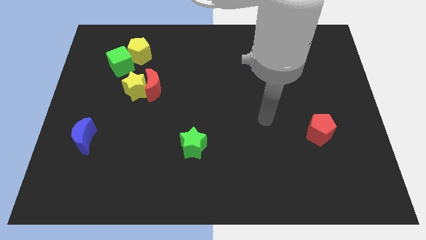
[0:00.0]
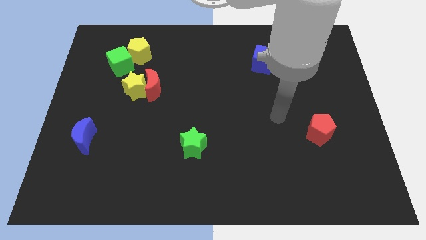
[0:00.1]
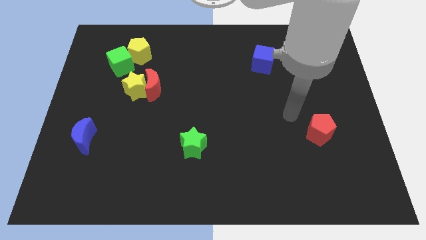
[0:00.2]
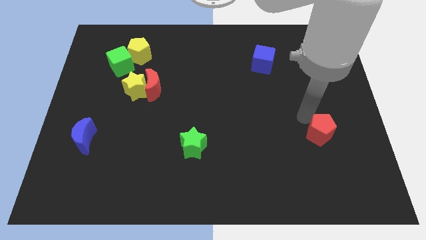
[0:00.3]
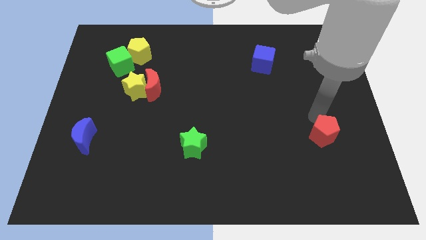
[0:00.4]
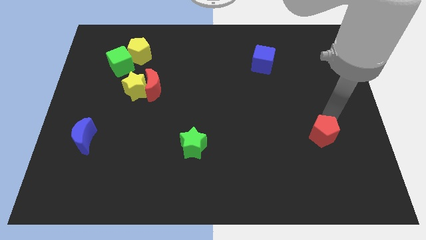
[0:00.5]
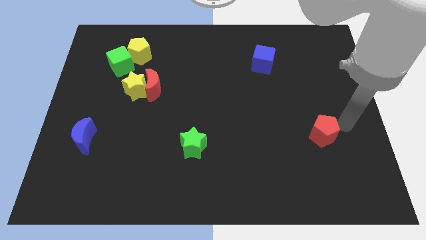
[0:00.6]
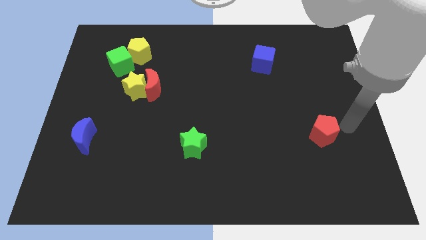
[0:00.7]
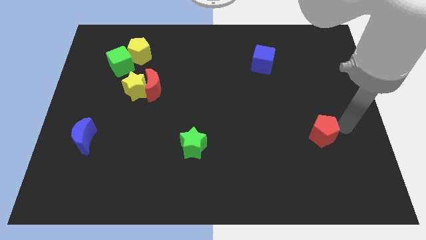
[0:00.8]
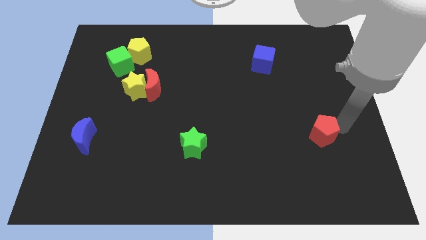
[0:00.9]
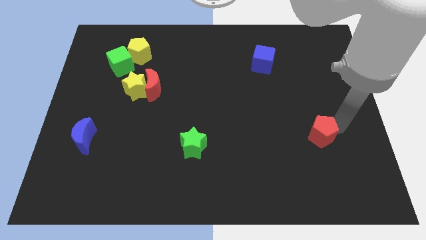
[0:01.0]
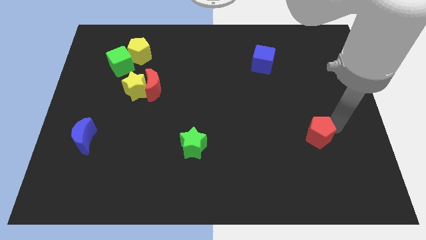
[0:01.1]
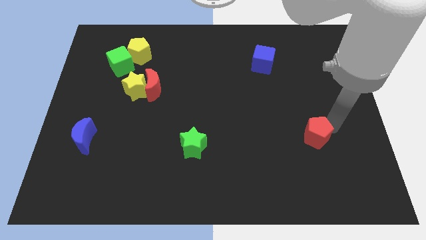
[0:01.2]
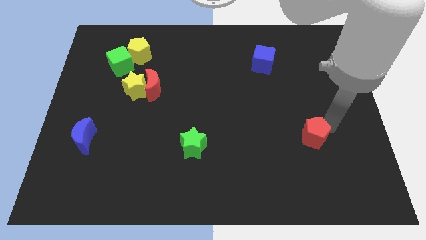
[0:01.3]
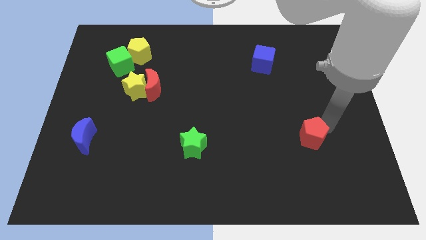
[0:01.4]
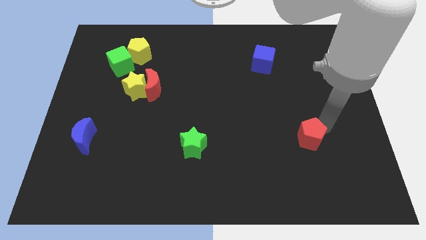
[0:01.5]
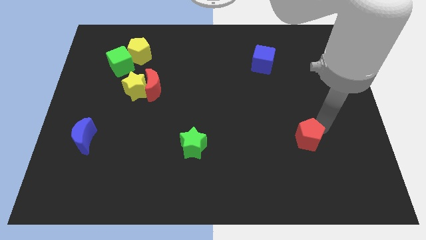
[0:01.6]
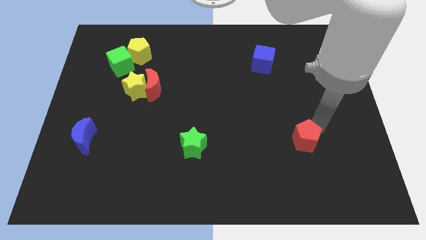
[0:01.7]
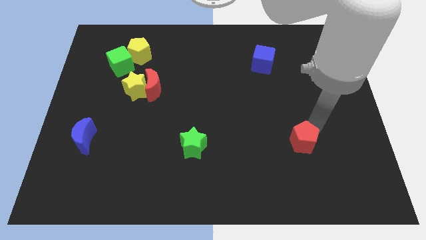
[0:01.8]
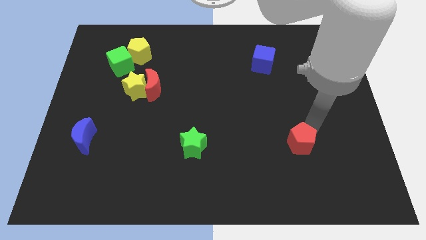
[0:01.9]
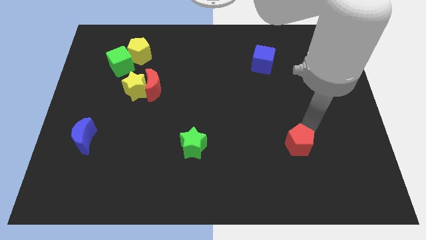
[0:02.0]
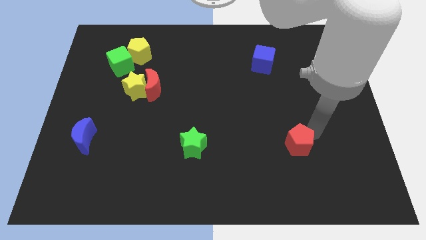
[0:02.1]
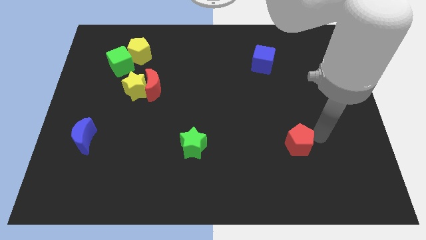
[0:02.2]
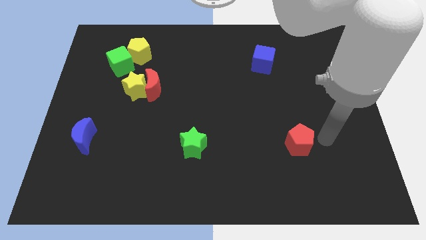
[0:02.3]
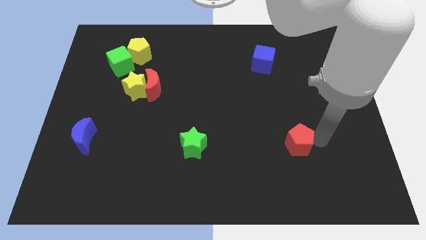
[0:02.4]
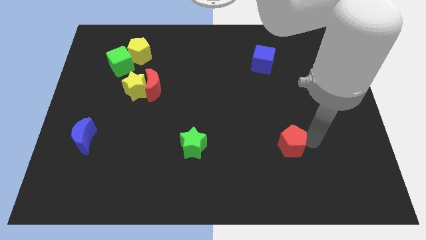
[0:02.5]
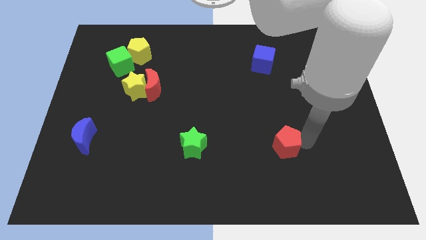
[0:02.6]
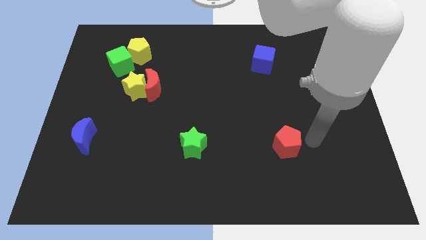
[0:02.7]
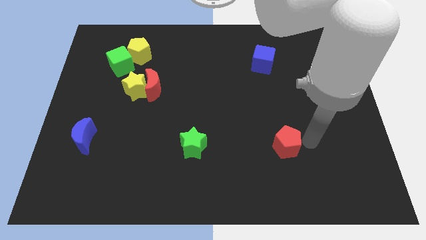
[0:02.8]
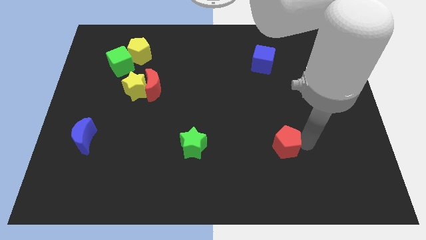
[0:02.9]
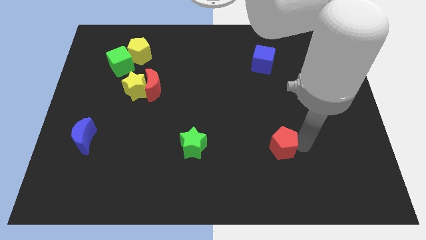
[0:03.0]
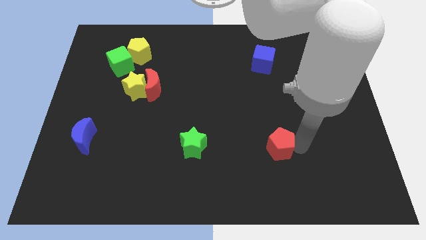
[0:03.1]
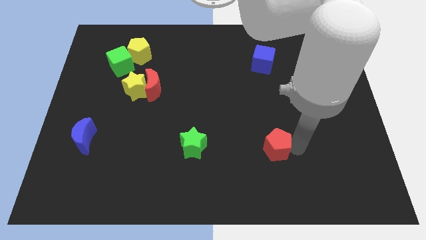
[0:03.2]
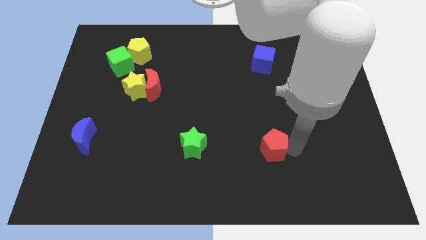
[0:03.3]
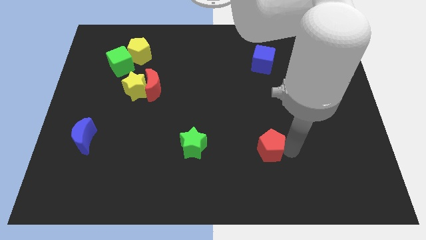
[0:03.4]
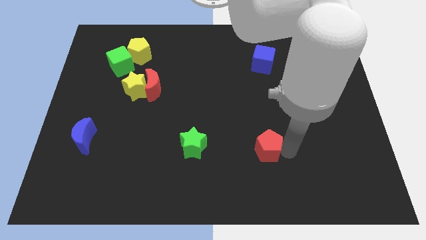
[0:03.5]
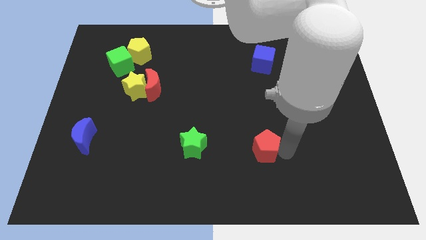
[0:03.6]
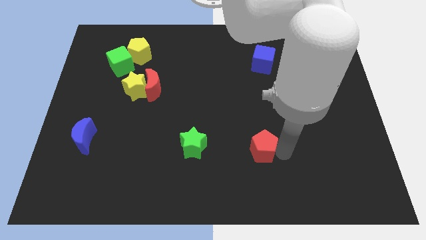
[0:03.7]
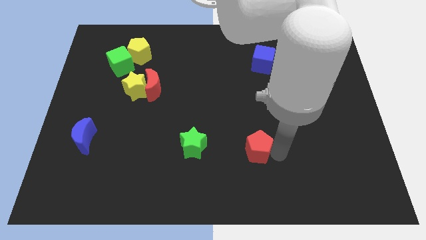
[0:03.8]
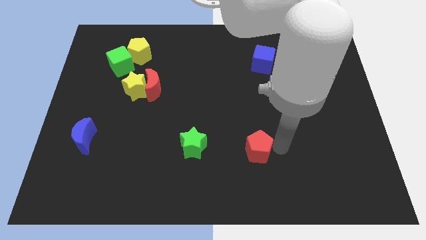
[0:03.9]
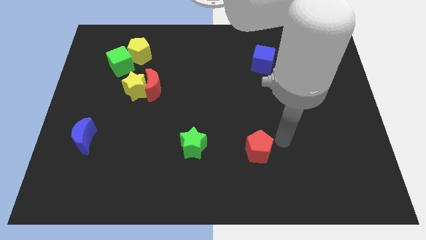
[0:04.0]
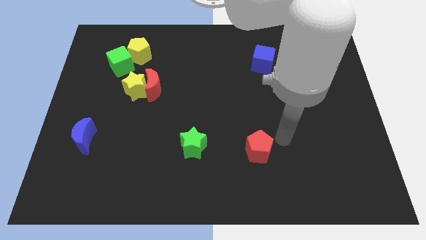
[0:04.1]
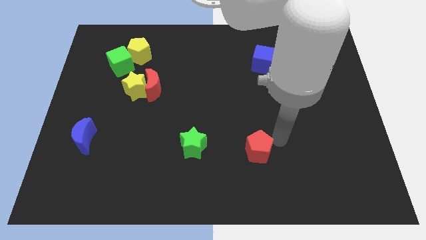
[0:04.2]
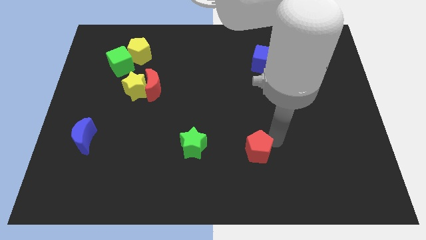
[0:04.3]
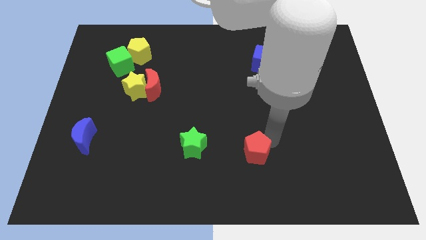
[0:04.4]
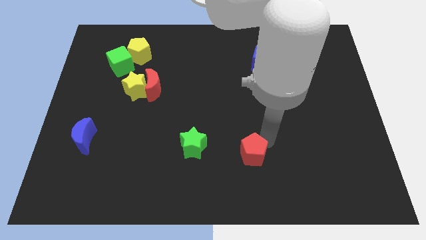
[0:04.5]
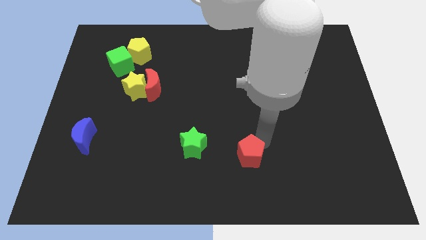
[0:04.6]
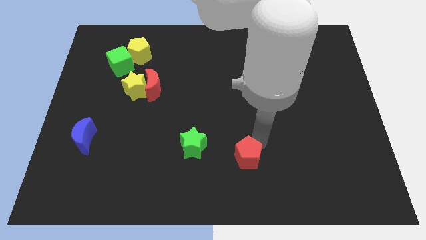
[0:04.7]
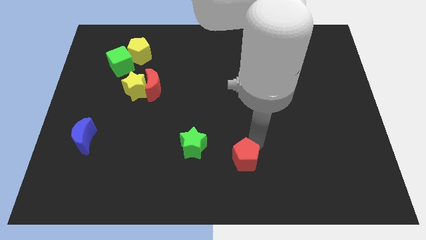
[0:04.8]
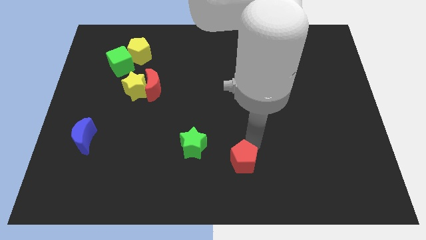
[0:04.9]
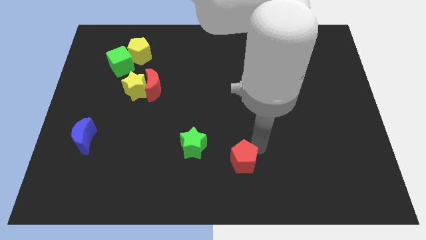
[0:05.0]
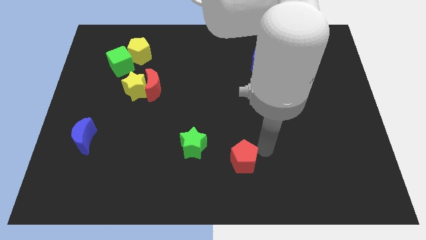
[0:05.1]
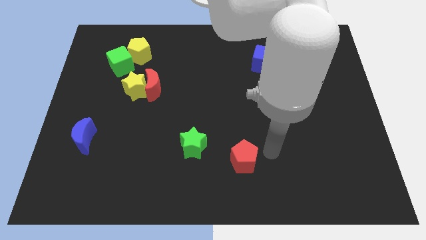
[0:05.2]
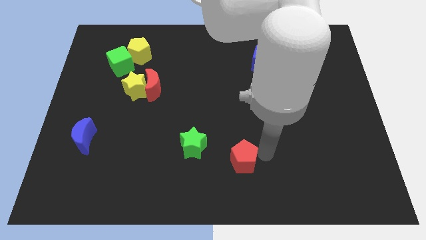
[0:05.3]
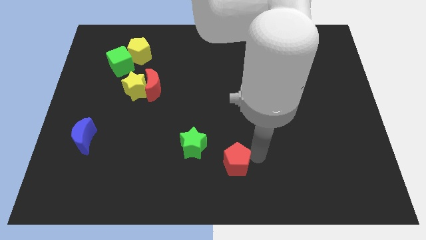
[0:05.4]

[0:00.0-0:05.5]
push the red pentagon diagonally down and to the right of the green star

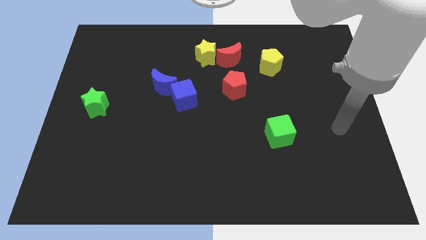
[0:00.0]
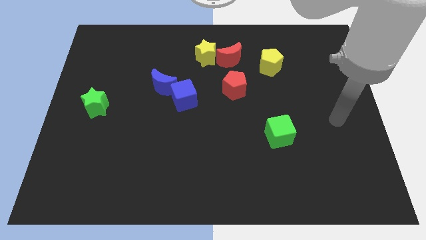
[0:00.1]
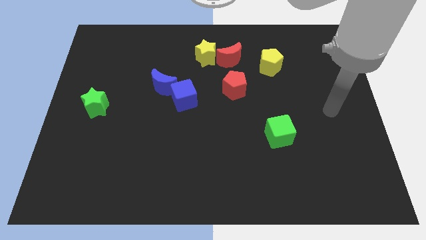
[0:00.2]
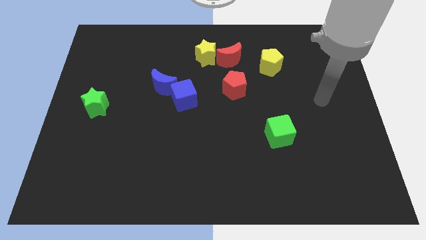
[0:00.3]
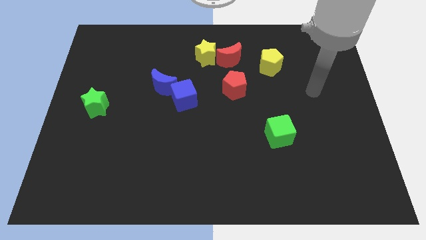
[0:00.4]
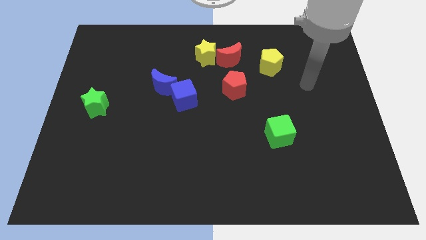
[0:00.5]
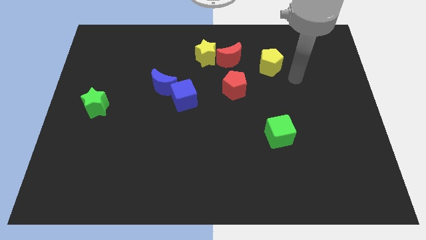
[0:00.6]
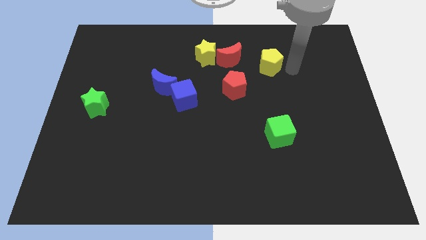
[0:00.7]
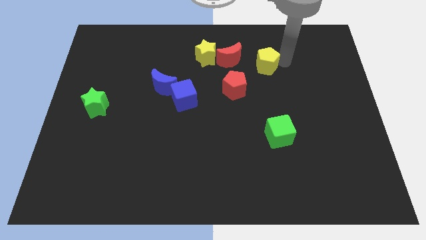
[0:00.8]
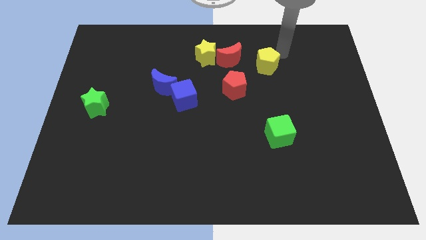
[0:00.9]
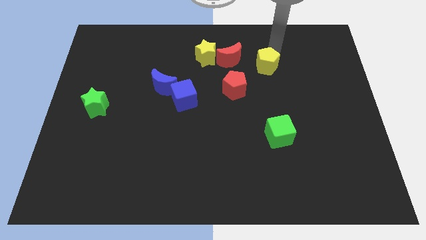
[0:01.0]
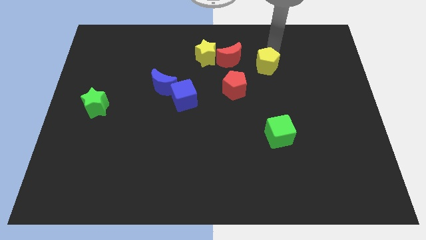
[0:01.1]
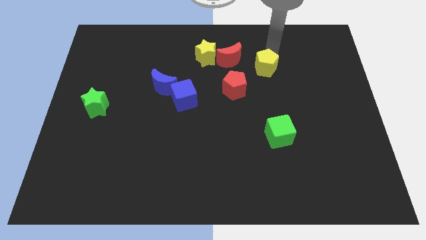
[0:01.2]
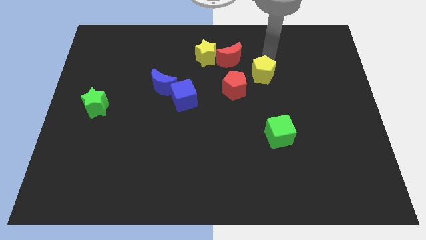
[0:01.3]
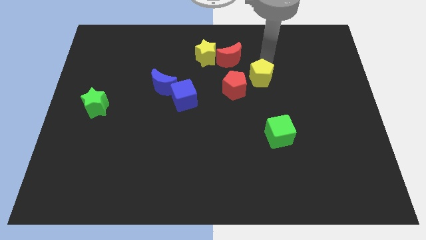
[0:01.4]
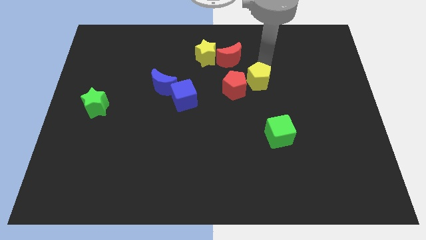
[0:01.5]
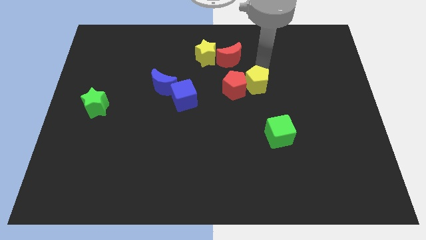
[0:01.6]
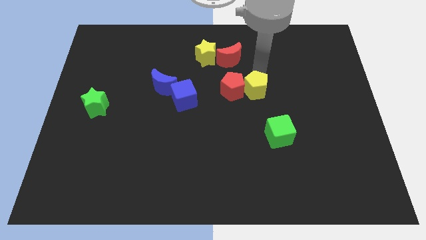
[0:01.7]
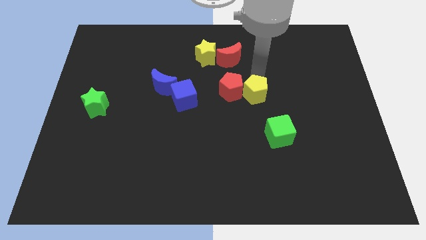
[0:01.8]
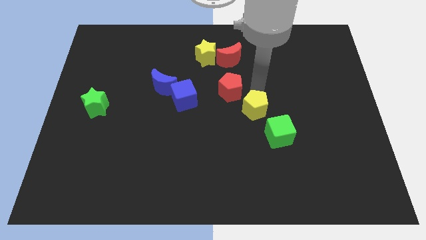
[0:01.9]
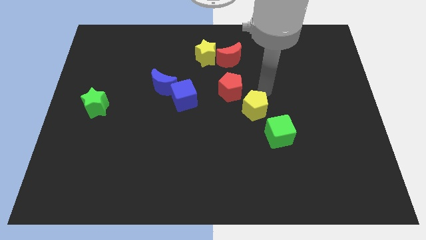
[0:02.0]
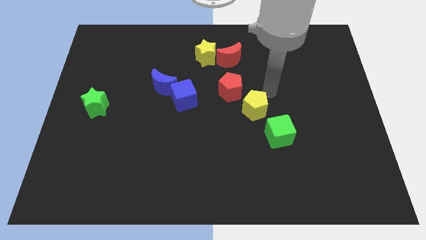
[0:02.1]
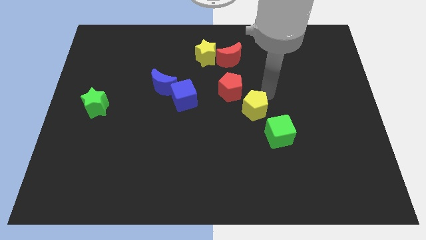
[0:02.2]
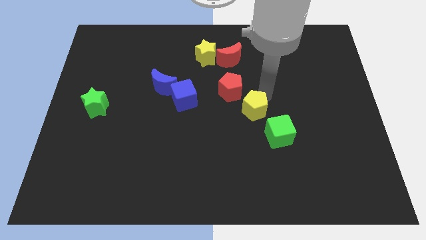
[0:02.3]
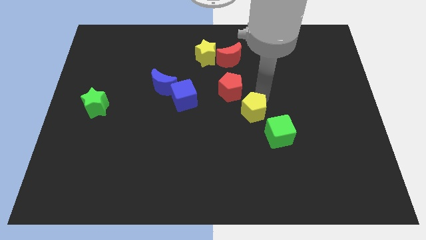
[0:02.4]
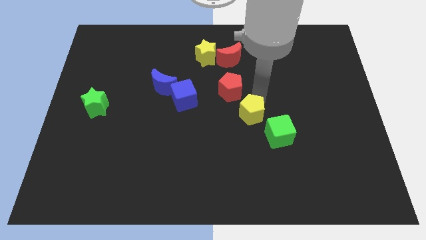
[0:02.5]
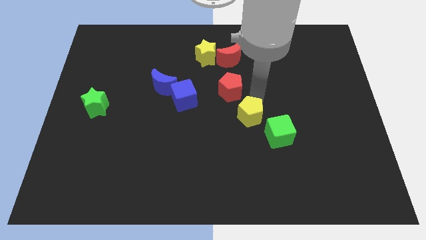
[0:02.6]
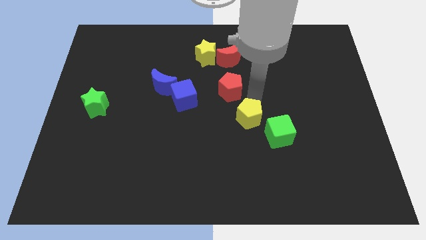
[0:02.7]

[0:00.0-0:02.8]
push the yellow pentagon just left of the green cube
